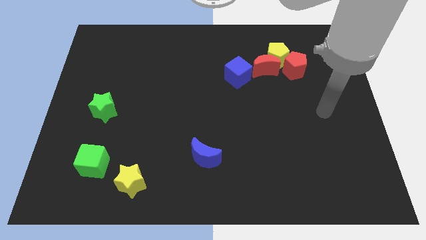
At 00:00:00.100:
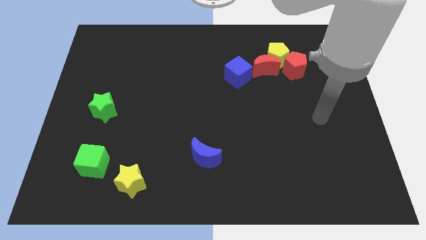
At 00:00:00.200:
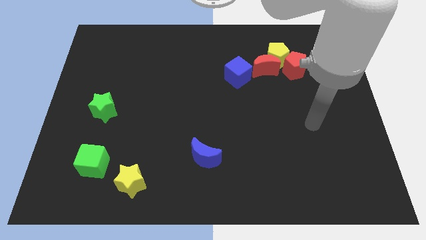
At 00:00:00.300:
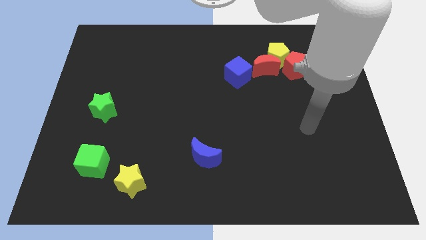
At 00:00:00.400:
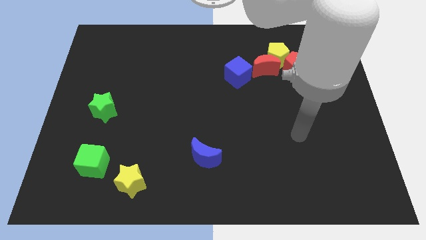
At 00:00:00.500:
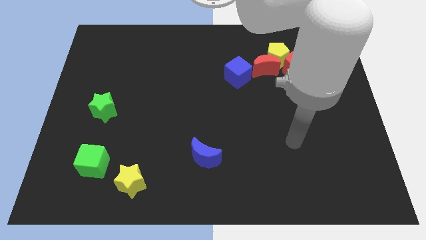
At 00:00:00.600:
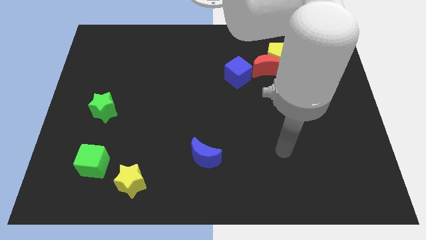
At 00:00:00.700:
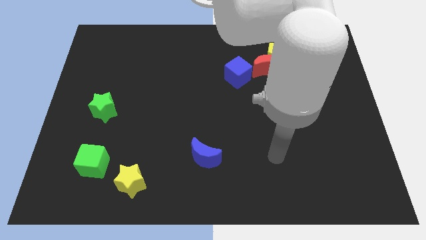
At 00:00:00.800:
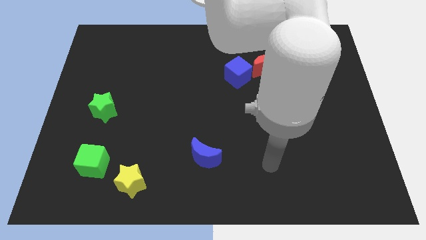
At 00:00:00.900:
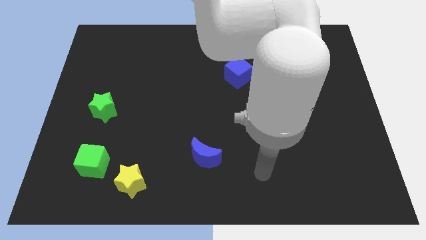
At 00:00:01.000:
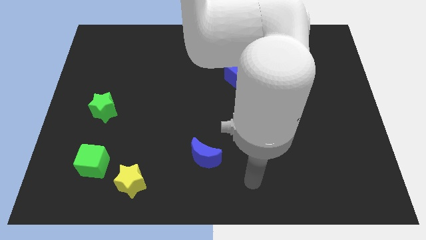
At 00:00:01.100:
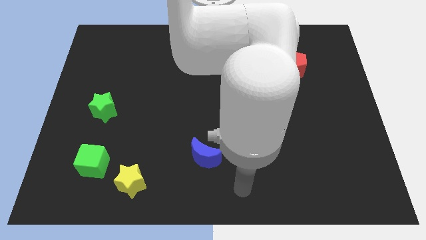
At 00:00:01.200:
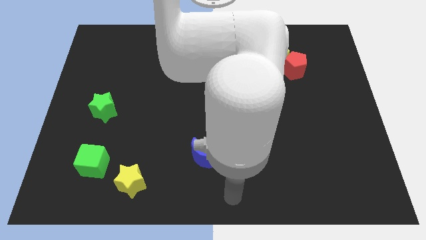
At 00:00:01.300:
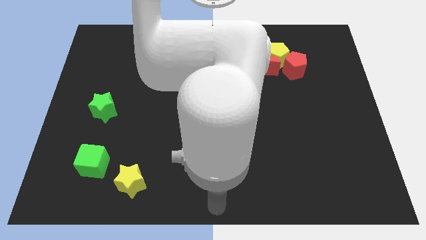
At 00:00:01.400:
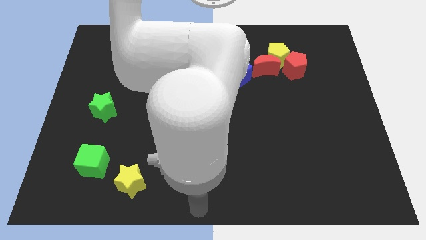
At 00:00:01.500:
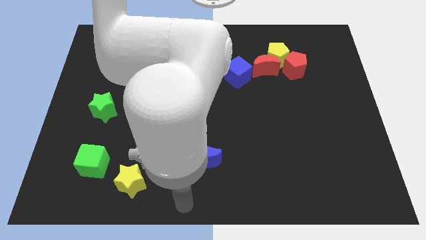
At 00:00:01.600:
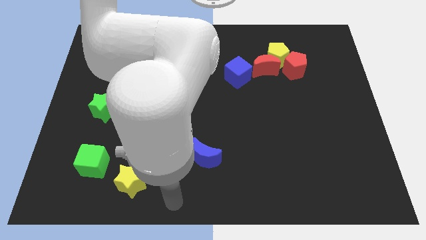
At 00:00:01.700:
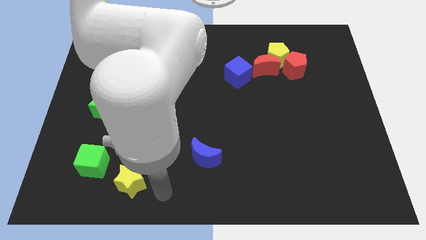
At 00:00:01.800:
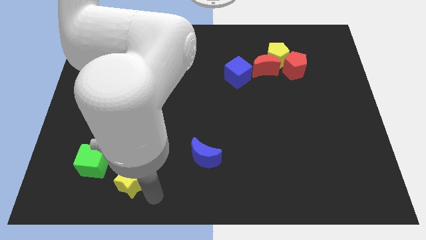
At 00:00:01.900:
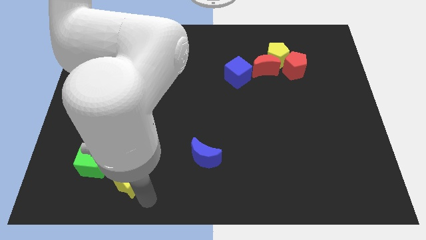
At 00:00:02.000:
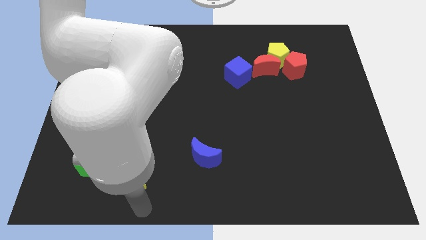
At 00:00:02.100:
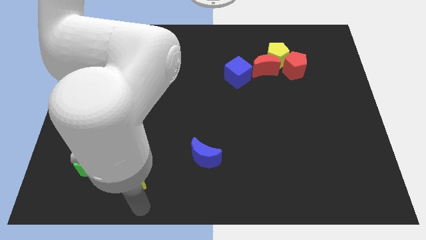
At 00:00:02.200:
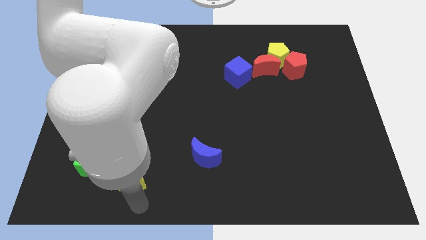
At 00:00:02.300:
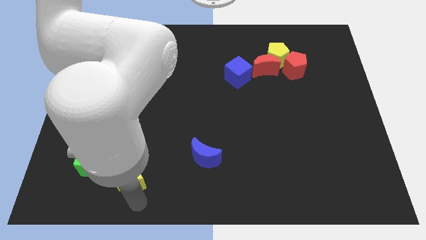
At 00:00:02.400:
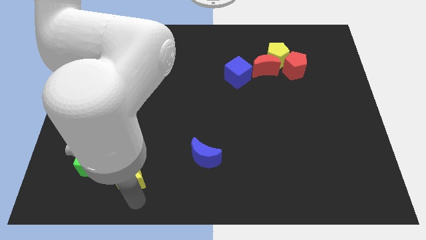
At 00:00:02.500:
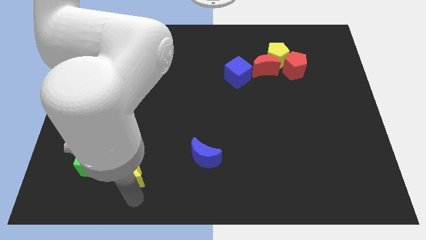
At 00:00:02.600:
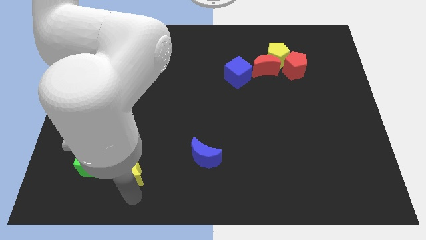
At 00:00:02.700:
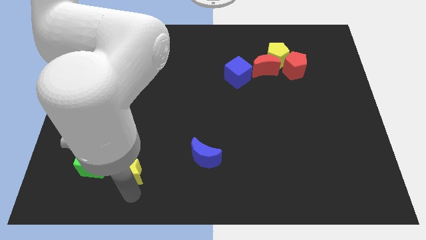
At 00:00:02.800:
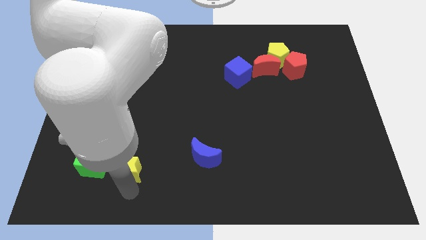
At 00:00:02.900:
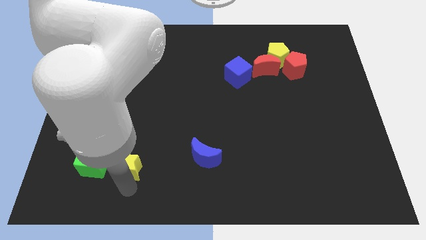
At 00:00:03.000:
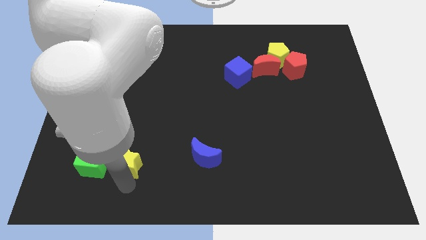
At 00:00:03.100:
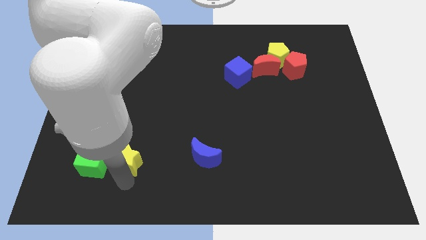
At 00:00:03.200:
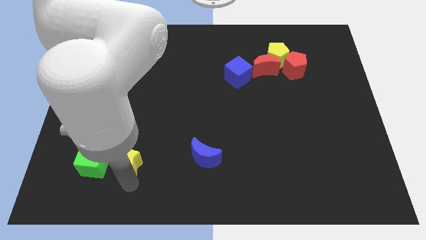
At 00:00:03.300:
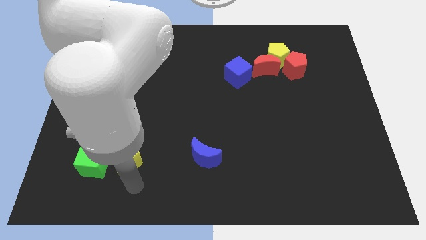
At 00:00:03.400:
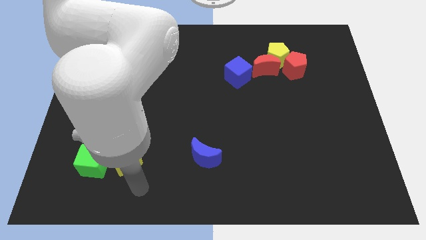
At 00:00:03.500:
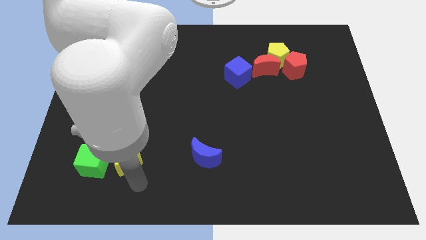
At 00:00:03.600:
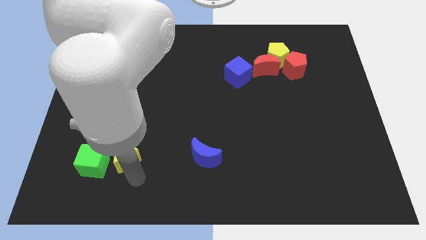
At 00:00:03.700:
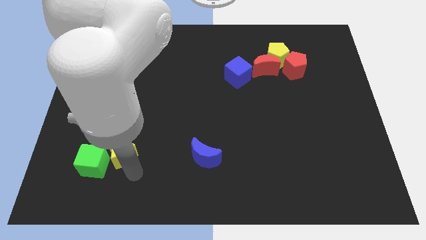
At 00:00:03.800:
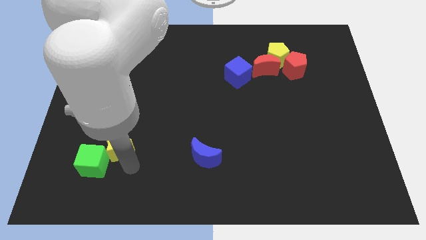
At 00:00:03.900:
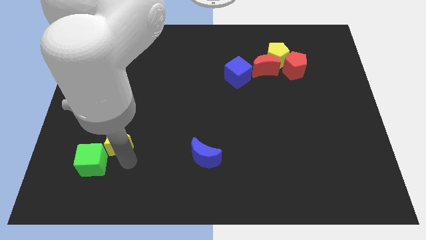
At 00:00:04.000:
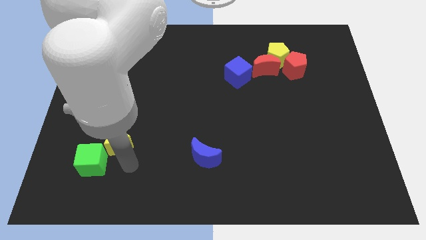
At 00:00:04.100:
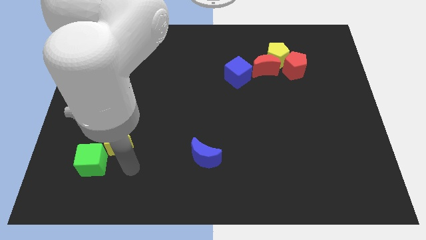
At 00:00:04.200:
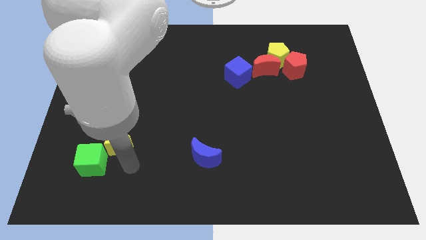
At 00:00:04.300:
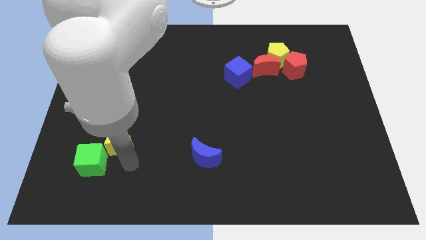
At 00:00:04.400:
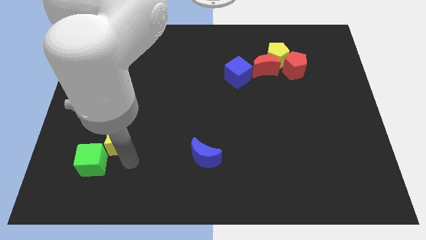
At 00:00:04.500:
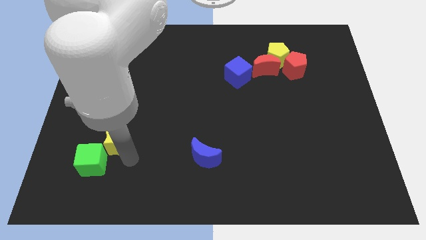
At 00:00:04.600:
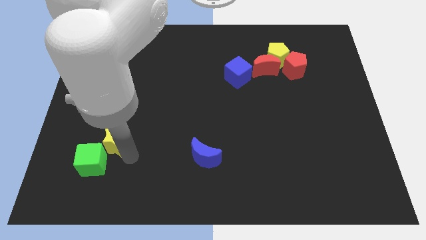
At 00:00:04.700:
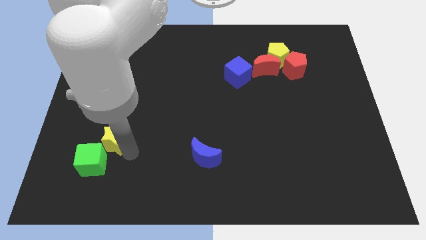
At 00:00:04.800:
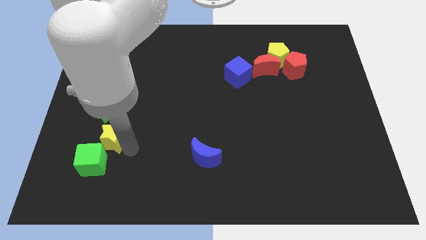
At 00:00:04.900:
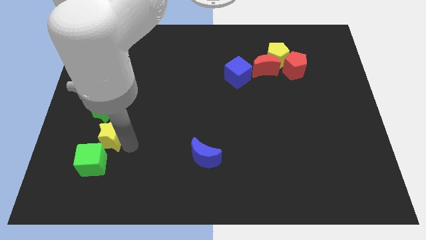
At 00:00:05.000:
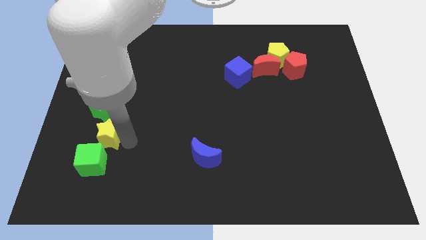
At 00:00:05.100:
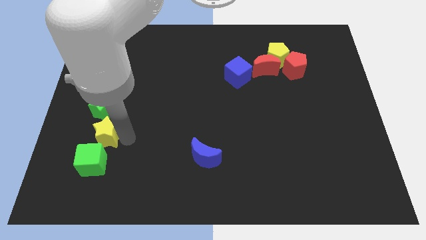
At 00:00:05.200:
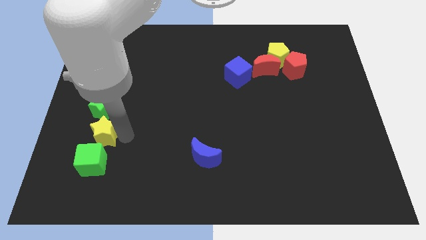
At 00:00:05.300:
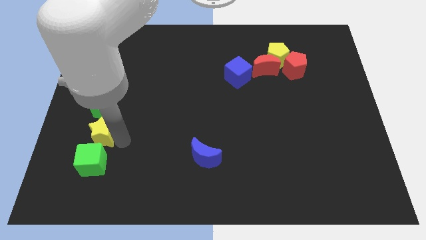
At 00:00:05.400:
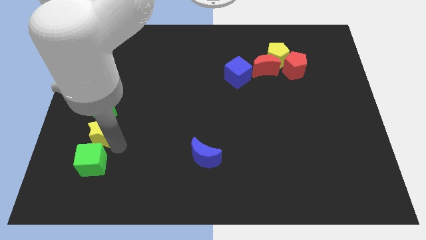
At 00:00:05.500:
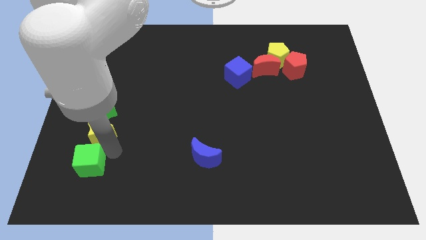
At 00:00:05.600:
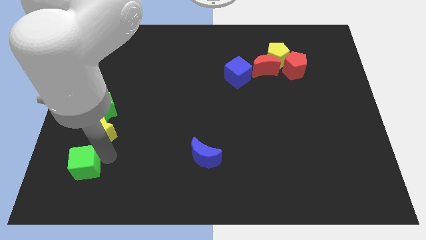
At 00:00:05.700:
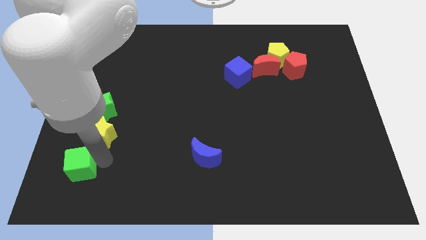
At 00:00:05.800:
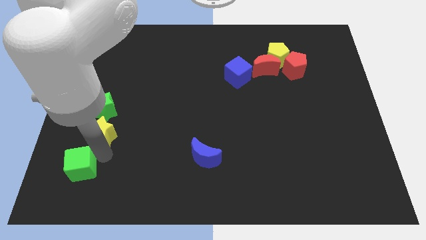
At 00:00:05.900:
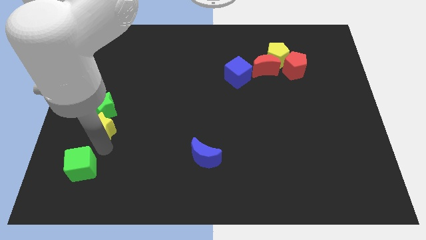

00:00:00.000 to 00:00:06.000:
move the yellow star next to the green star

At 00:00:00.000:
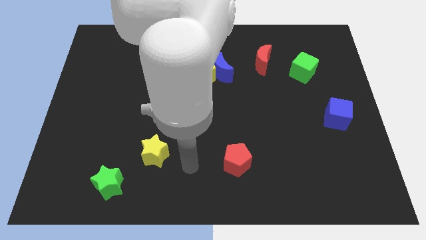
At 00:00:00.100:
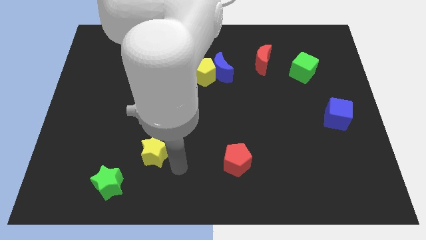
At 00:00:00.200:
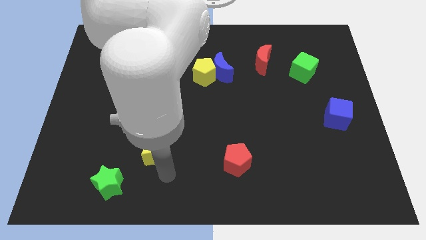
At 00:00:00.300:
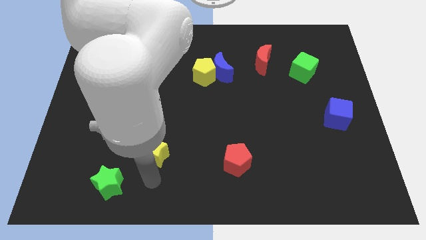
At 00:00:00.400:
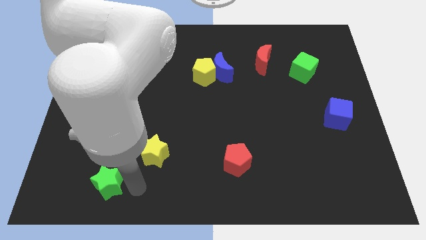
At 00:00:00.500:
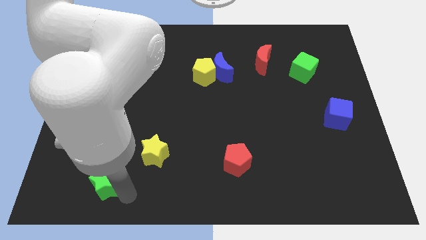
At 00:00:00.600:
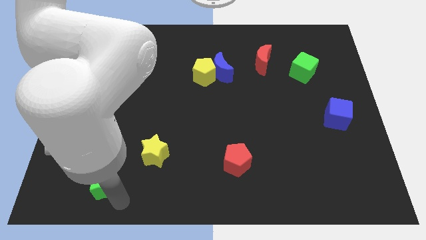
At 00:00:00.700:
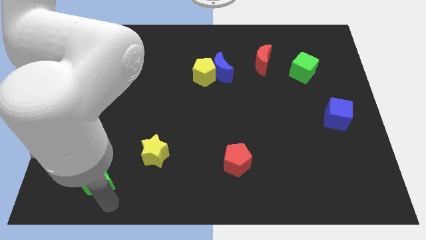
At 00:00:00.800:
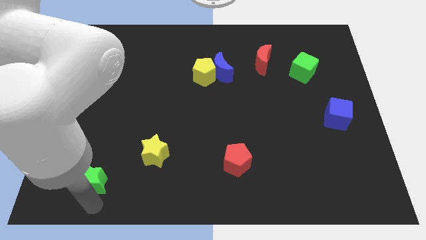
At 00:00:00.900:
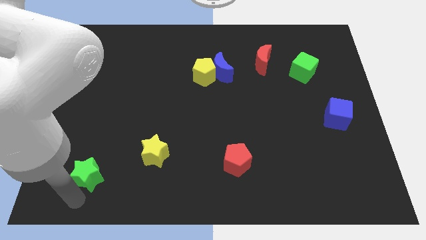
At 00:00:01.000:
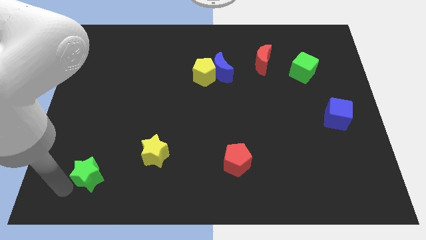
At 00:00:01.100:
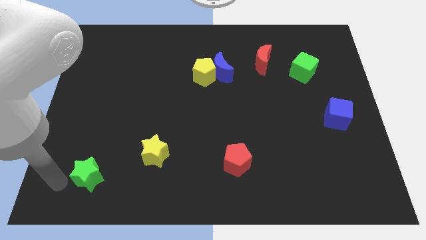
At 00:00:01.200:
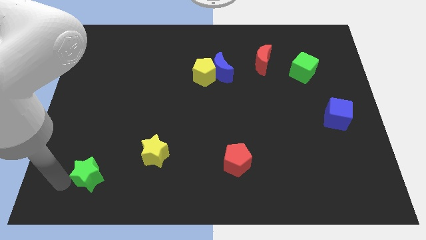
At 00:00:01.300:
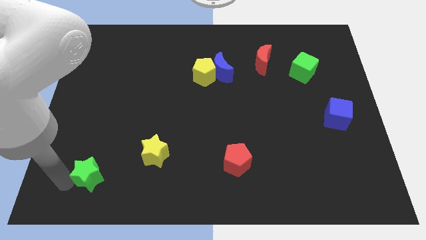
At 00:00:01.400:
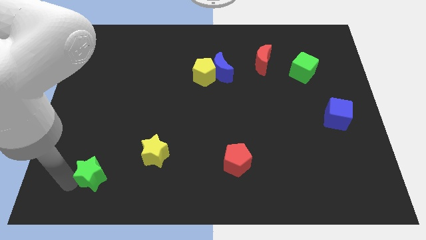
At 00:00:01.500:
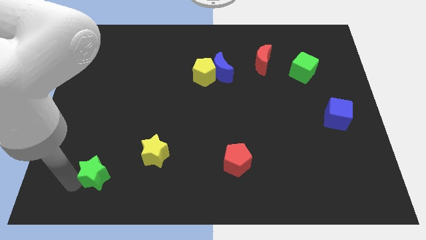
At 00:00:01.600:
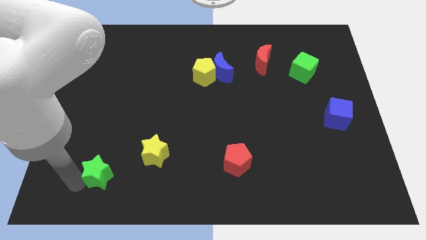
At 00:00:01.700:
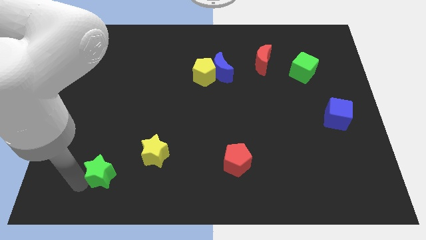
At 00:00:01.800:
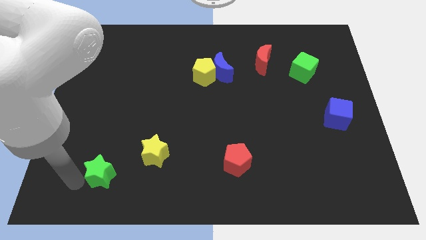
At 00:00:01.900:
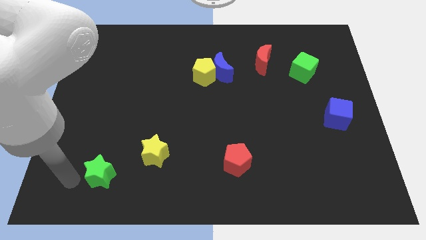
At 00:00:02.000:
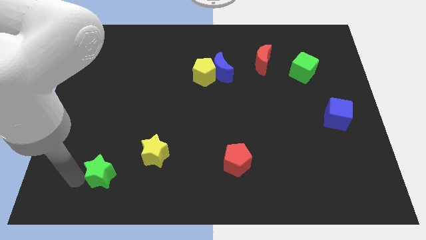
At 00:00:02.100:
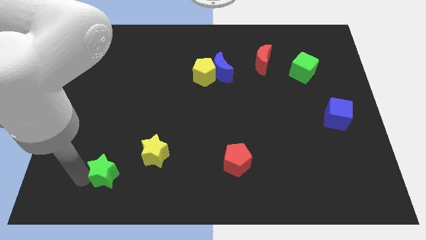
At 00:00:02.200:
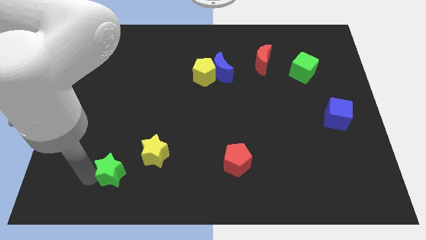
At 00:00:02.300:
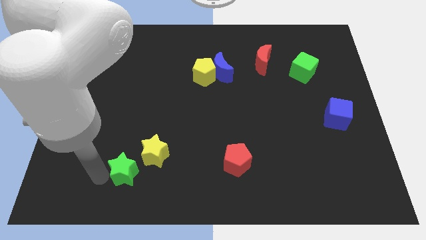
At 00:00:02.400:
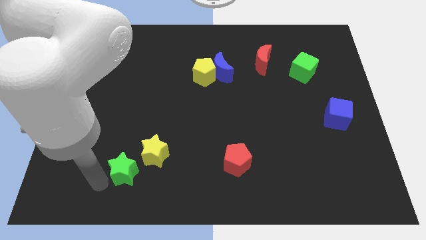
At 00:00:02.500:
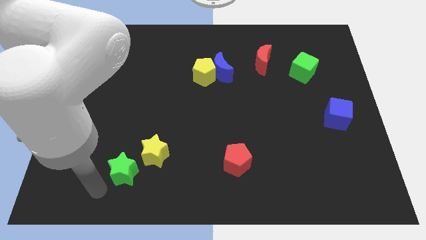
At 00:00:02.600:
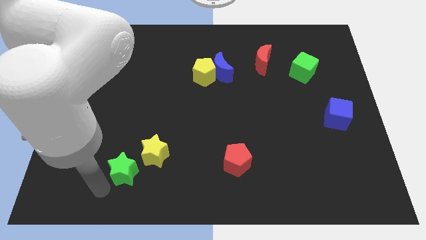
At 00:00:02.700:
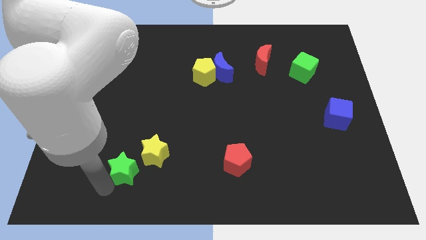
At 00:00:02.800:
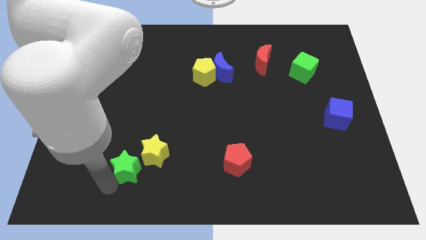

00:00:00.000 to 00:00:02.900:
move the green star close to the yellow star
